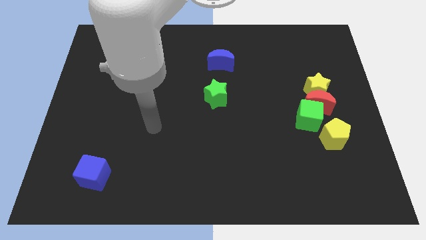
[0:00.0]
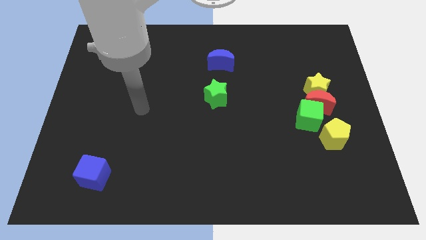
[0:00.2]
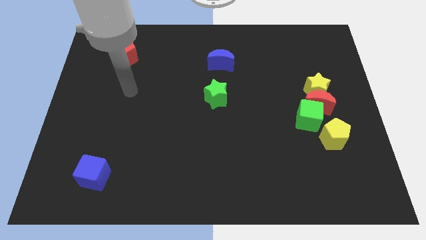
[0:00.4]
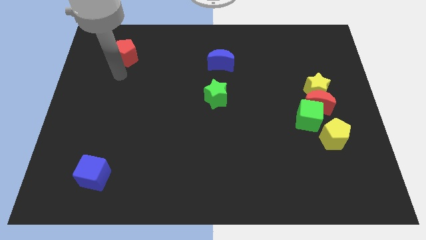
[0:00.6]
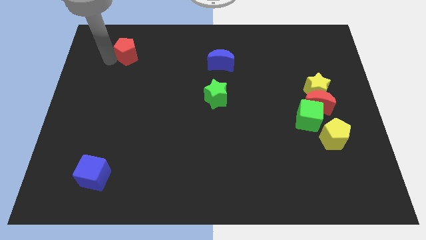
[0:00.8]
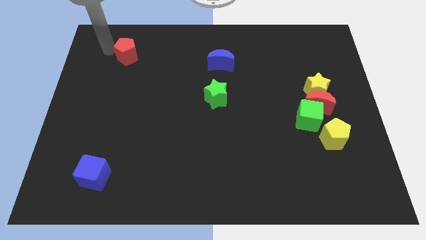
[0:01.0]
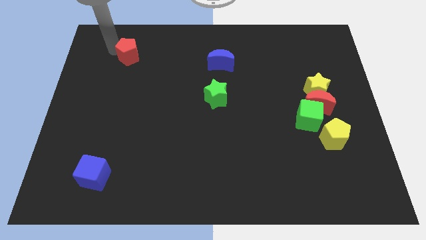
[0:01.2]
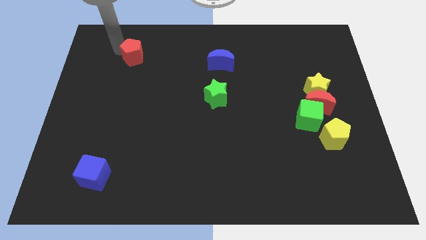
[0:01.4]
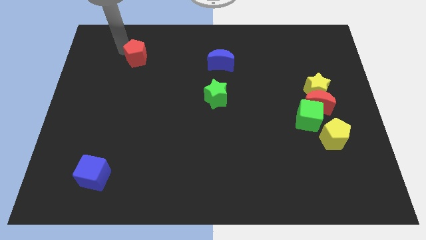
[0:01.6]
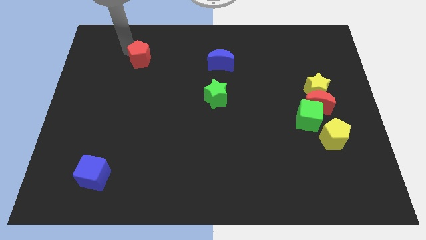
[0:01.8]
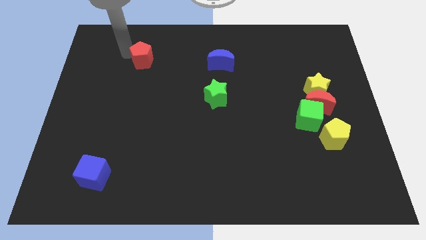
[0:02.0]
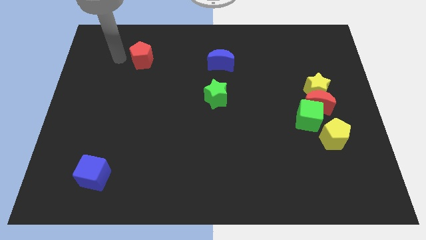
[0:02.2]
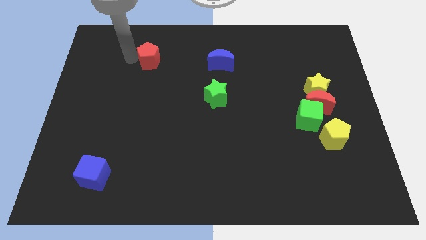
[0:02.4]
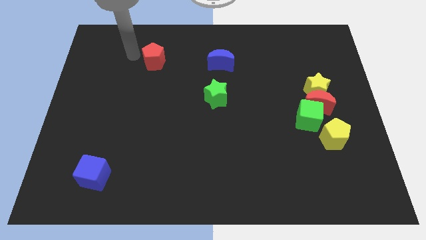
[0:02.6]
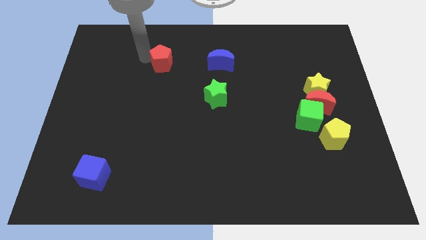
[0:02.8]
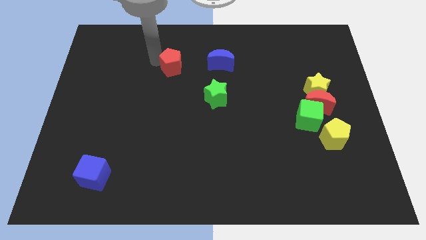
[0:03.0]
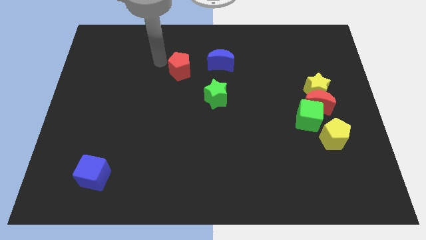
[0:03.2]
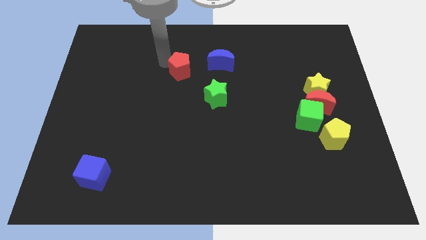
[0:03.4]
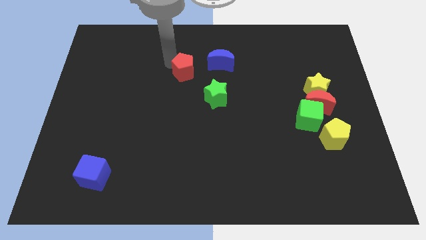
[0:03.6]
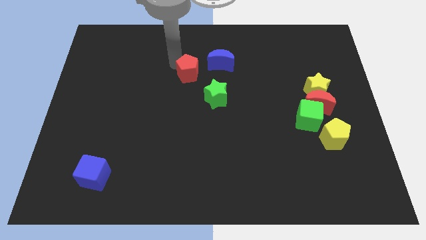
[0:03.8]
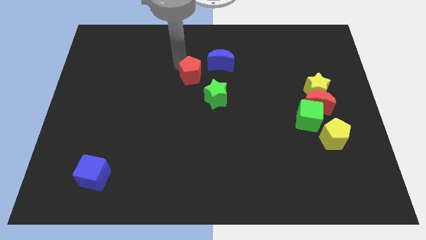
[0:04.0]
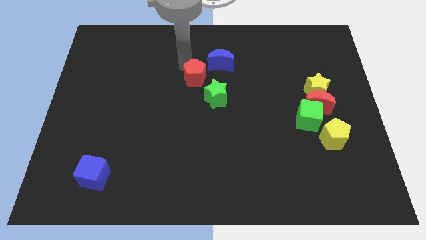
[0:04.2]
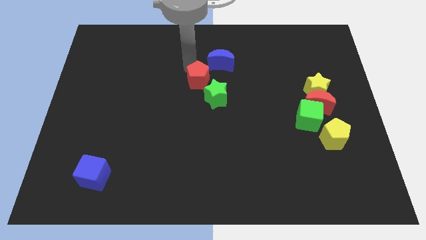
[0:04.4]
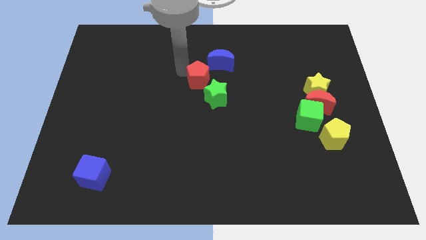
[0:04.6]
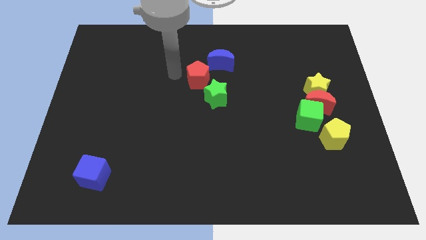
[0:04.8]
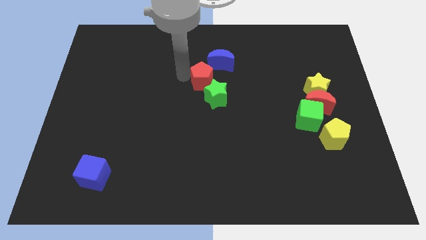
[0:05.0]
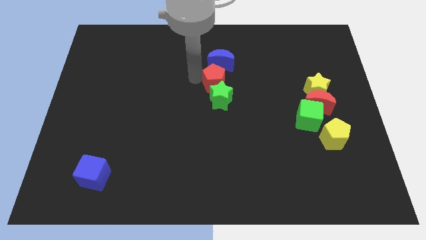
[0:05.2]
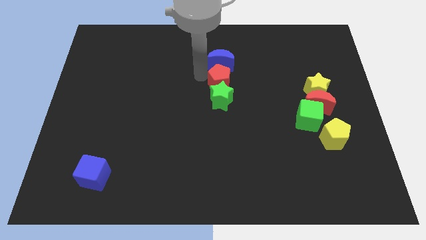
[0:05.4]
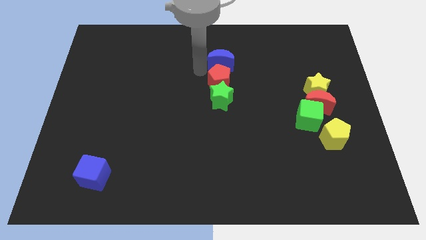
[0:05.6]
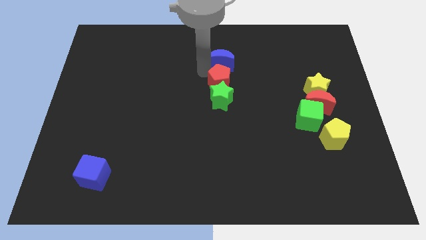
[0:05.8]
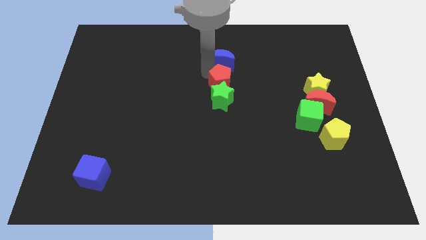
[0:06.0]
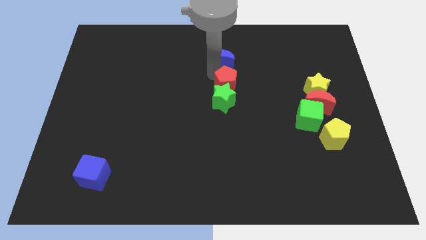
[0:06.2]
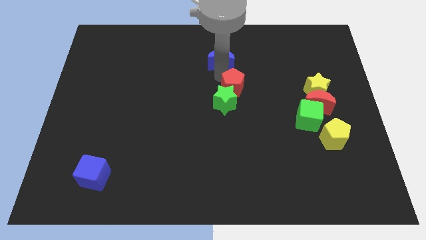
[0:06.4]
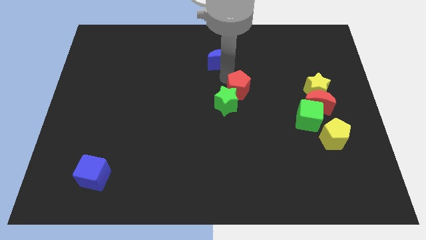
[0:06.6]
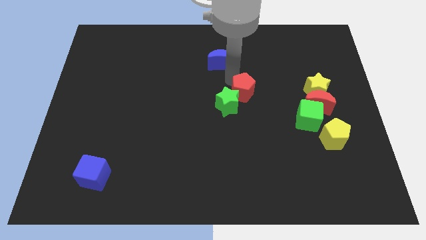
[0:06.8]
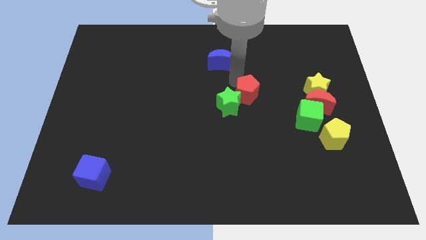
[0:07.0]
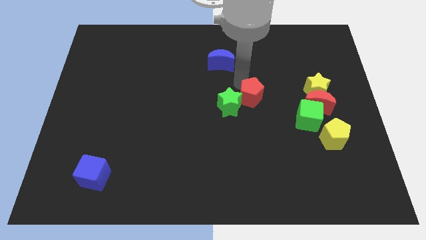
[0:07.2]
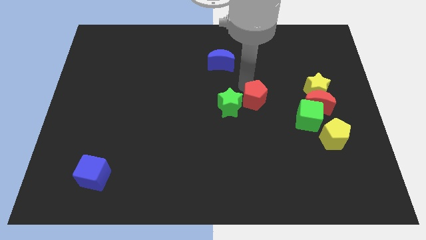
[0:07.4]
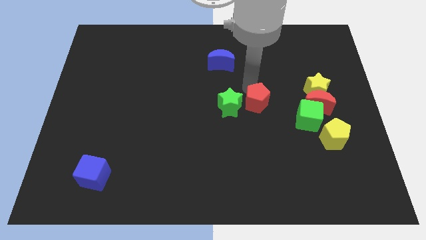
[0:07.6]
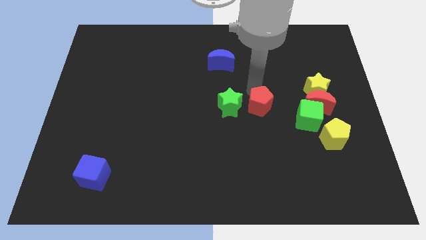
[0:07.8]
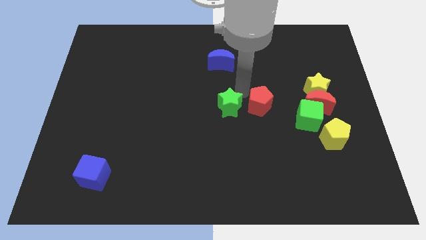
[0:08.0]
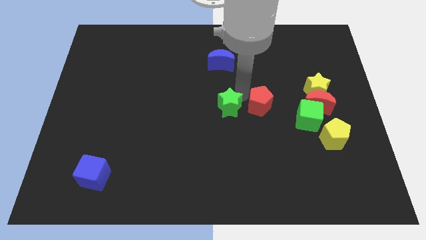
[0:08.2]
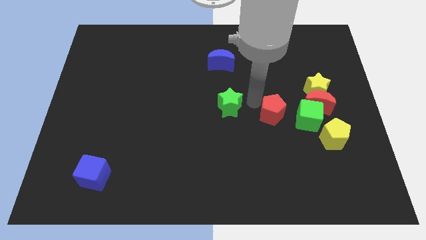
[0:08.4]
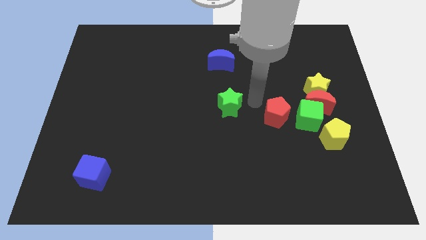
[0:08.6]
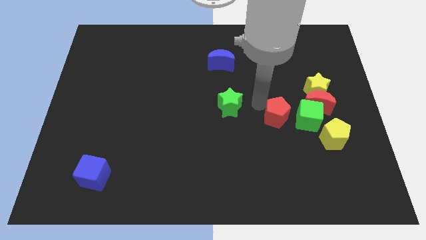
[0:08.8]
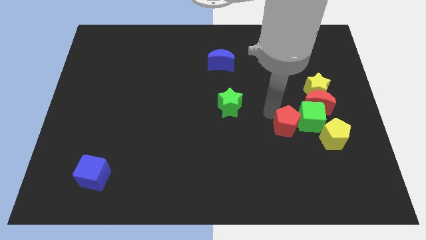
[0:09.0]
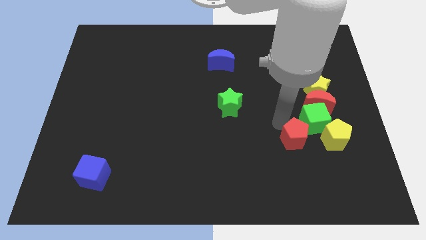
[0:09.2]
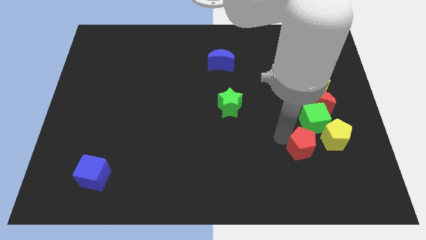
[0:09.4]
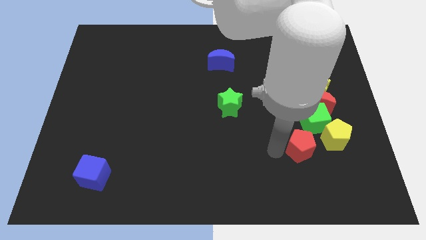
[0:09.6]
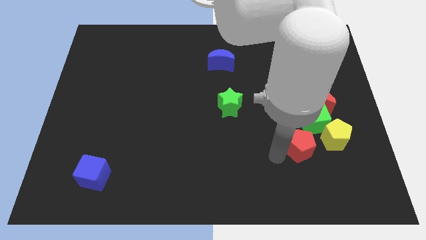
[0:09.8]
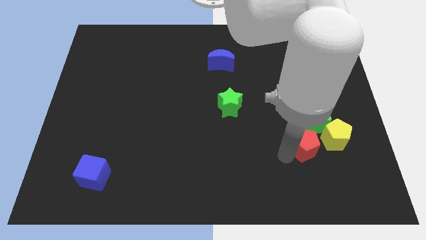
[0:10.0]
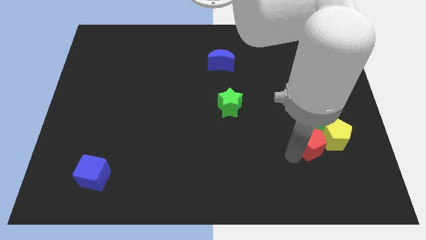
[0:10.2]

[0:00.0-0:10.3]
put the red pentagon to the yellow pentagon
